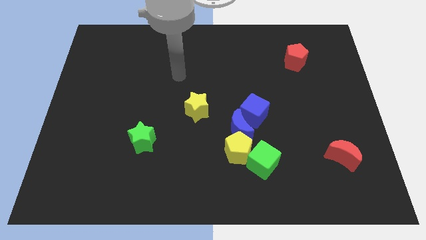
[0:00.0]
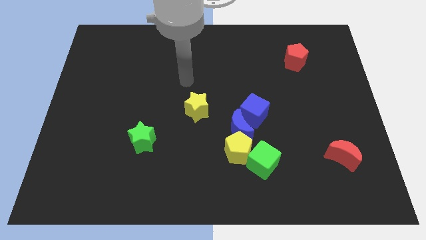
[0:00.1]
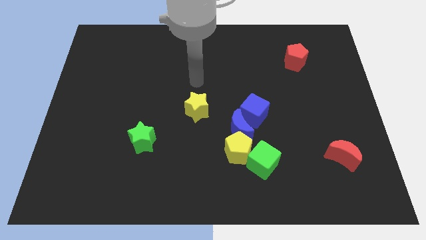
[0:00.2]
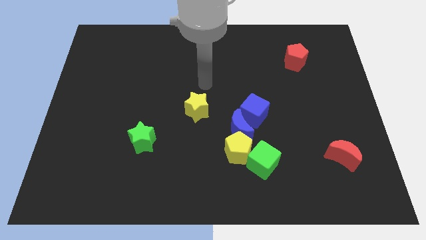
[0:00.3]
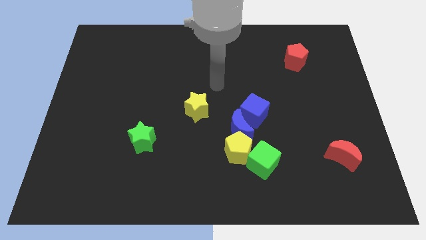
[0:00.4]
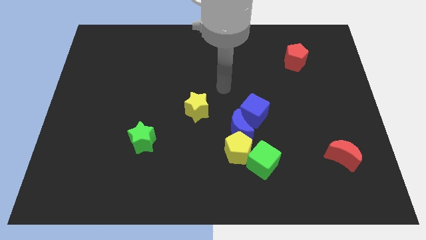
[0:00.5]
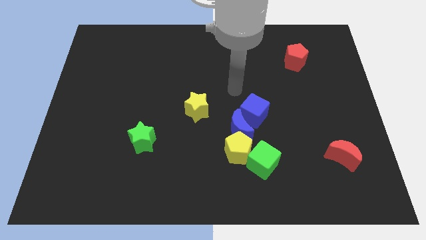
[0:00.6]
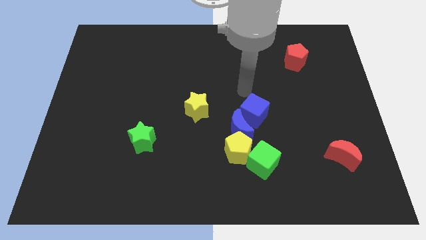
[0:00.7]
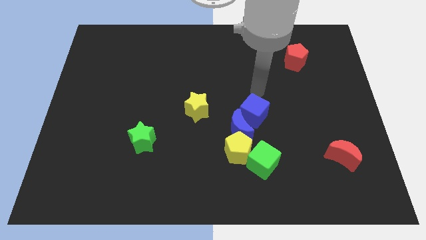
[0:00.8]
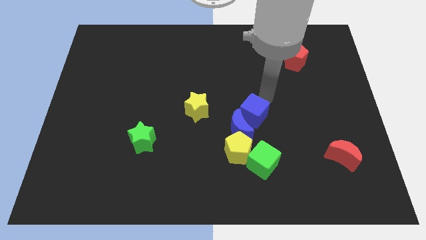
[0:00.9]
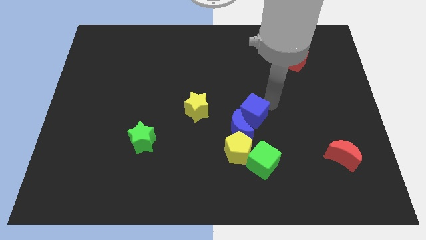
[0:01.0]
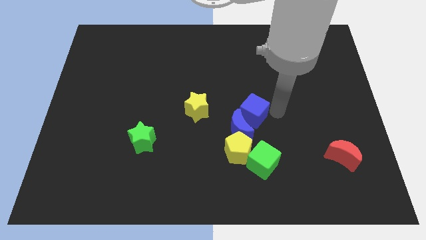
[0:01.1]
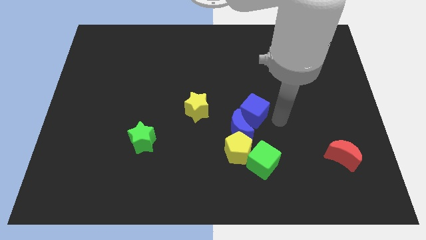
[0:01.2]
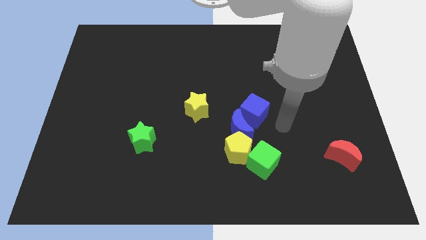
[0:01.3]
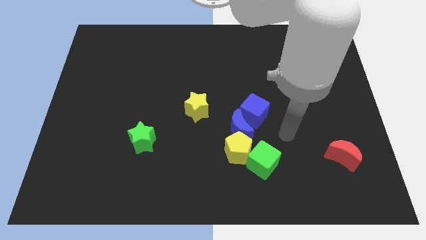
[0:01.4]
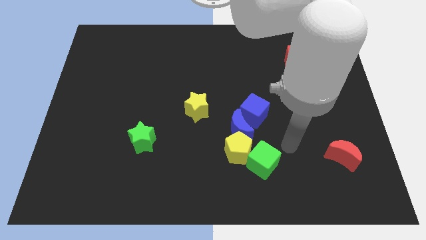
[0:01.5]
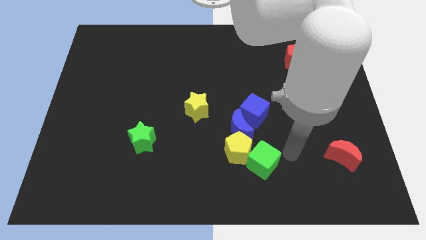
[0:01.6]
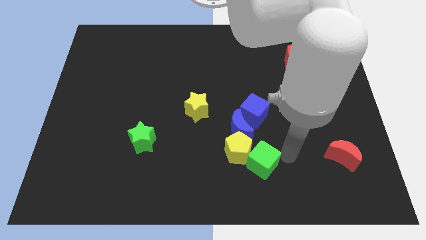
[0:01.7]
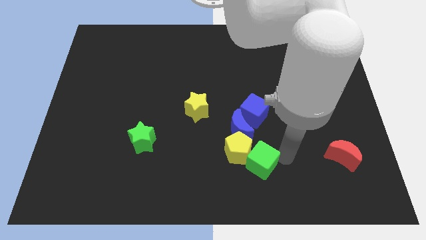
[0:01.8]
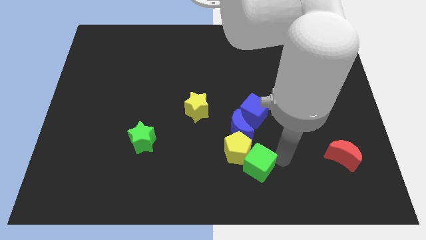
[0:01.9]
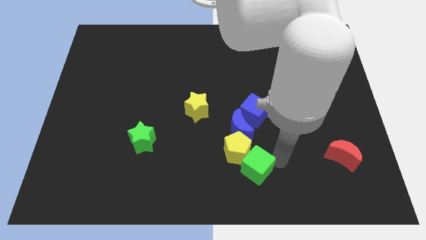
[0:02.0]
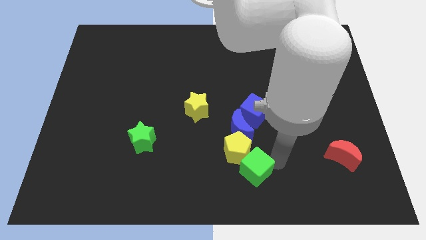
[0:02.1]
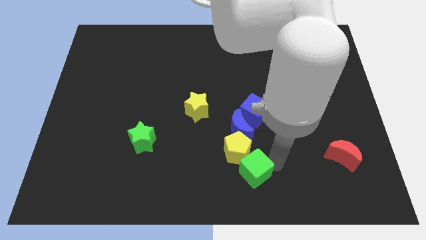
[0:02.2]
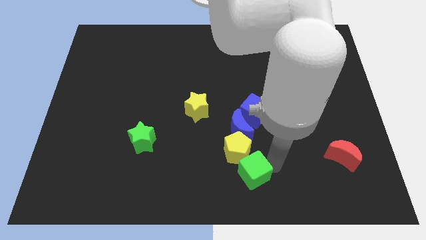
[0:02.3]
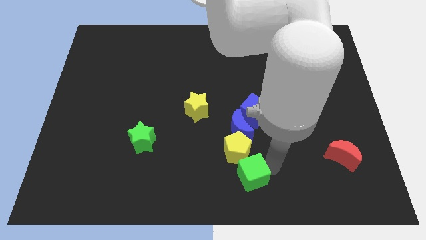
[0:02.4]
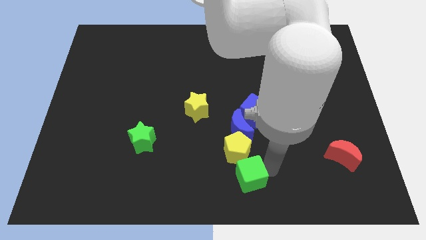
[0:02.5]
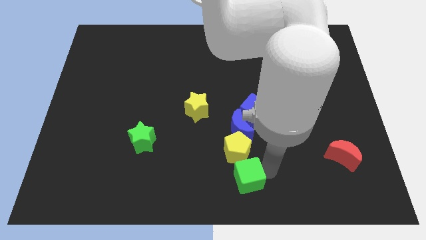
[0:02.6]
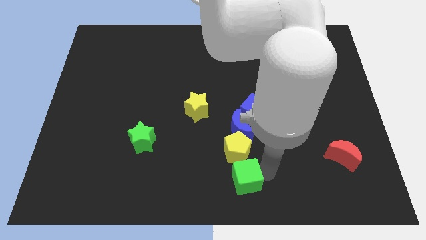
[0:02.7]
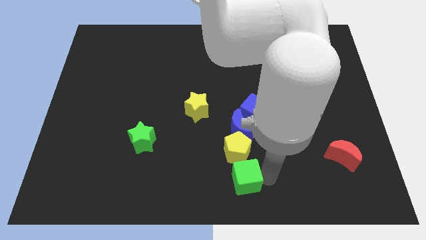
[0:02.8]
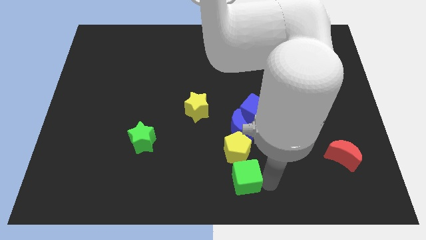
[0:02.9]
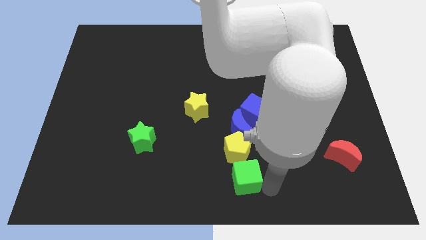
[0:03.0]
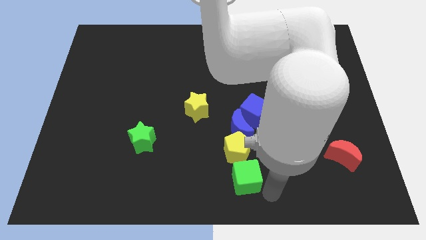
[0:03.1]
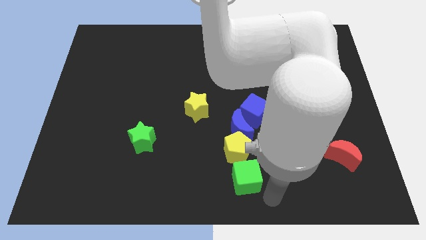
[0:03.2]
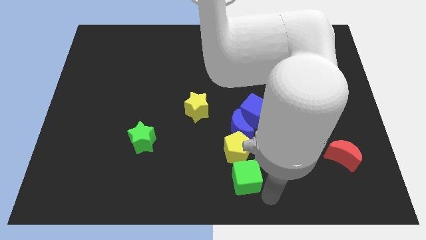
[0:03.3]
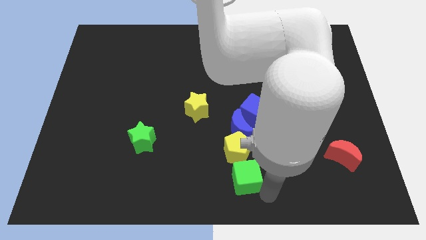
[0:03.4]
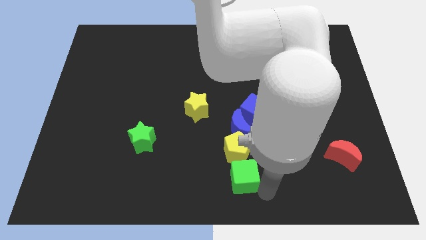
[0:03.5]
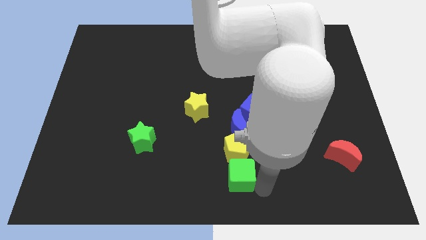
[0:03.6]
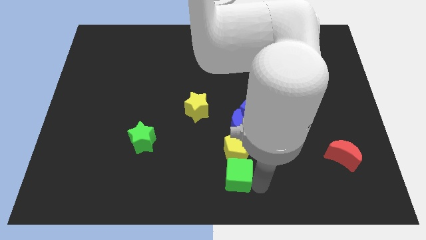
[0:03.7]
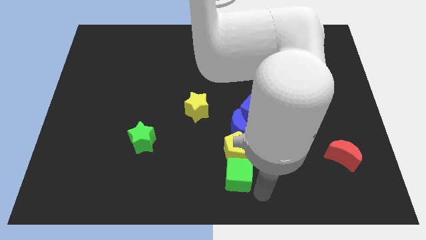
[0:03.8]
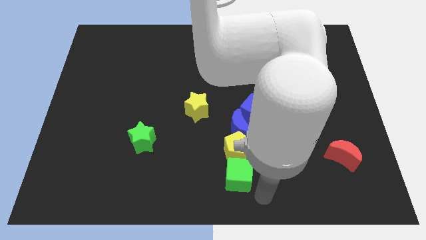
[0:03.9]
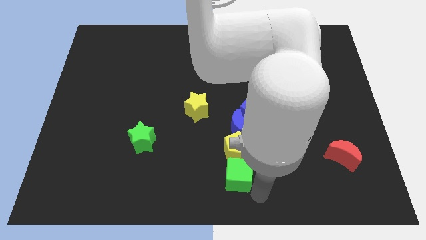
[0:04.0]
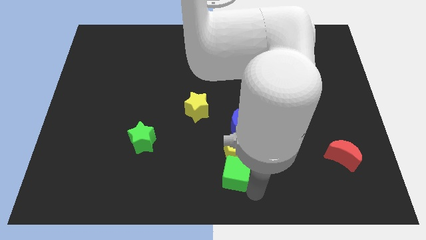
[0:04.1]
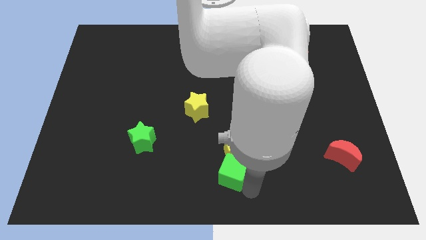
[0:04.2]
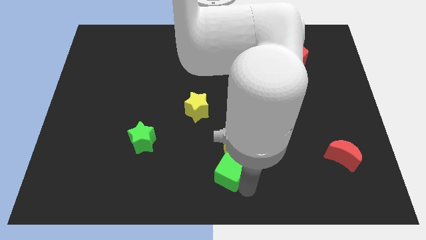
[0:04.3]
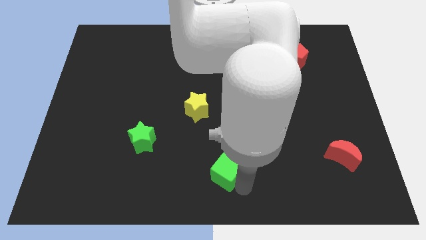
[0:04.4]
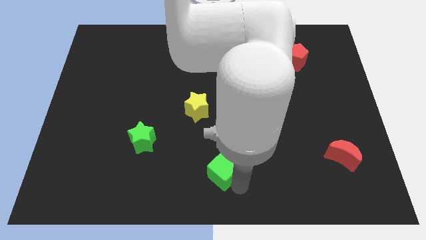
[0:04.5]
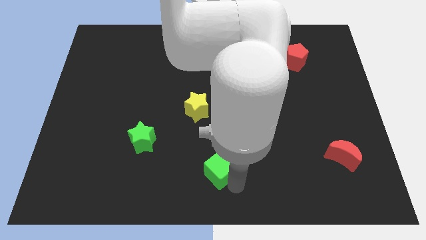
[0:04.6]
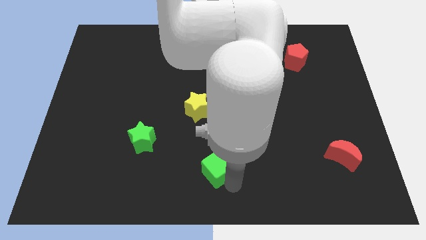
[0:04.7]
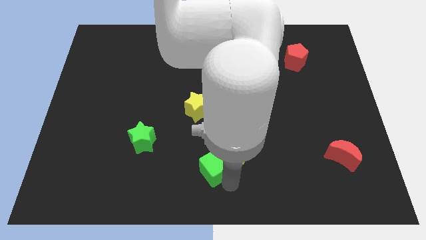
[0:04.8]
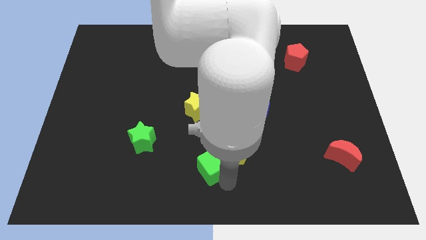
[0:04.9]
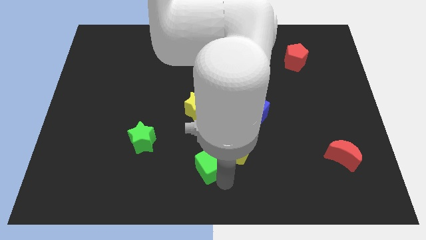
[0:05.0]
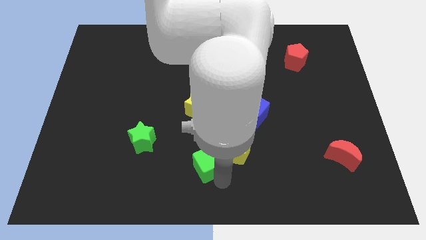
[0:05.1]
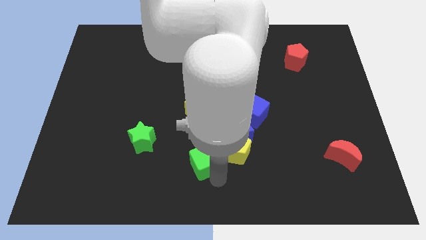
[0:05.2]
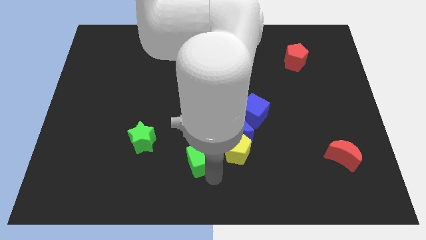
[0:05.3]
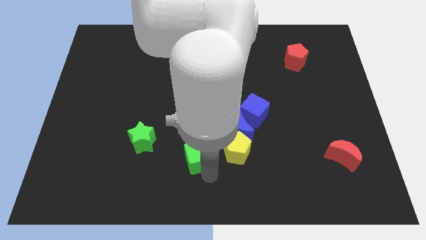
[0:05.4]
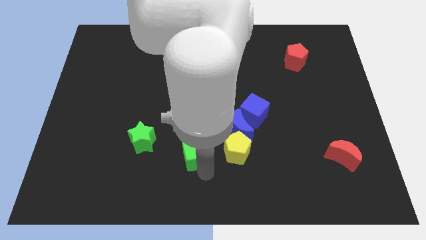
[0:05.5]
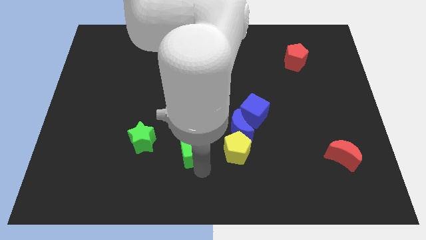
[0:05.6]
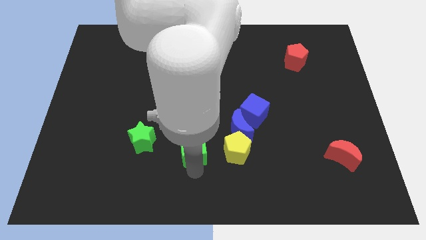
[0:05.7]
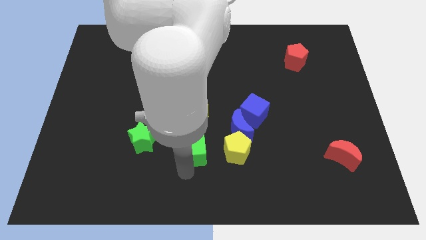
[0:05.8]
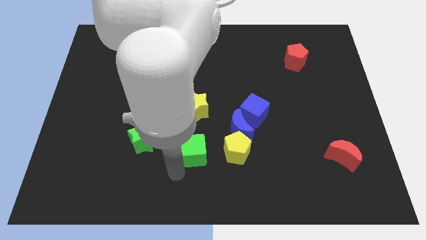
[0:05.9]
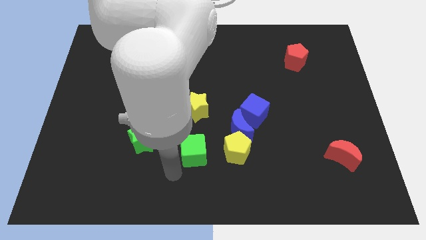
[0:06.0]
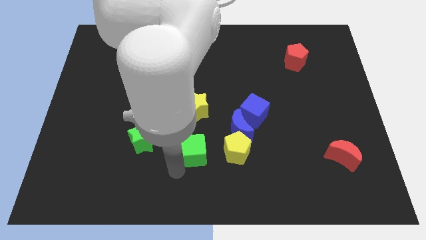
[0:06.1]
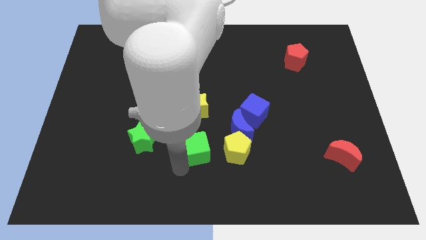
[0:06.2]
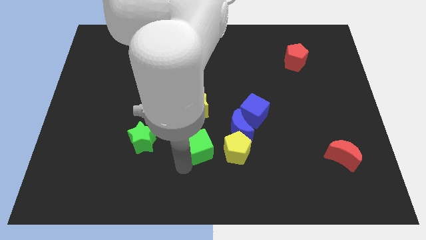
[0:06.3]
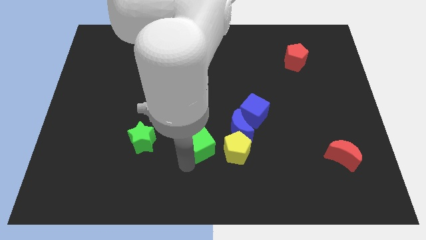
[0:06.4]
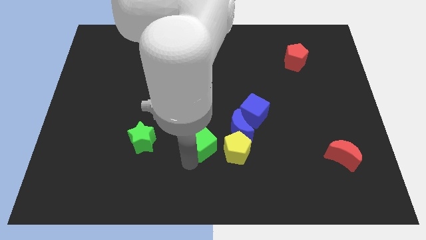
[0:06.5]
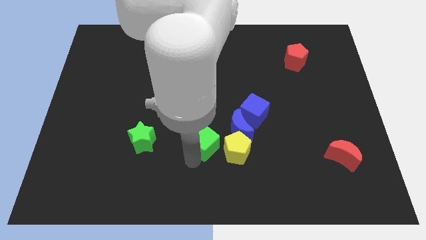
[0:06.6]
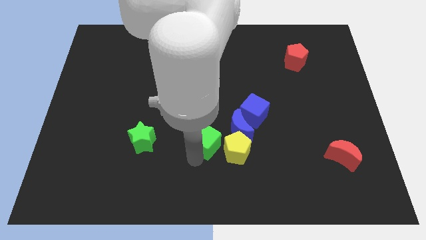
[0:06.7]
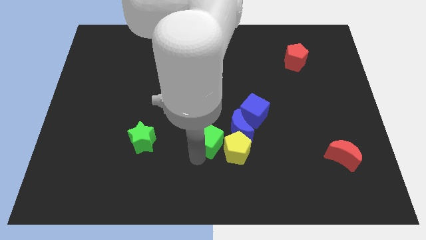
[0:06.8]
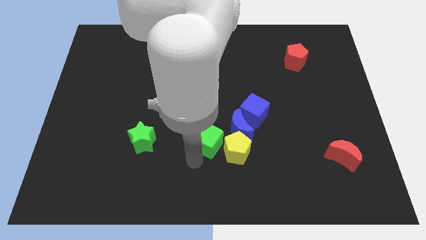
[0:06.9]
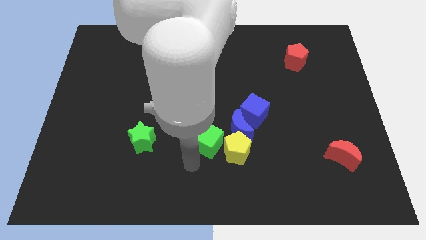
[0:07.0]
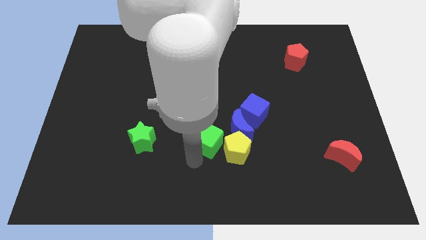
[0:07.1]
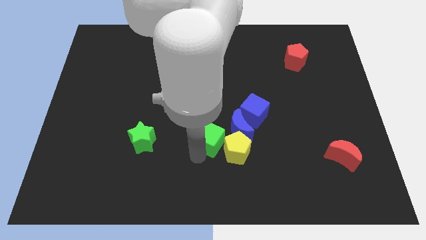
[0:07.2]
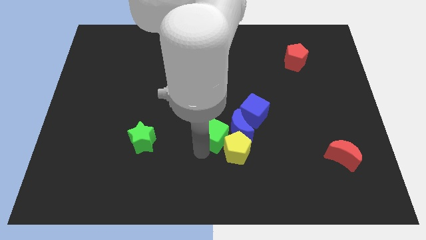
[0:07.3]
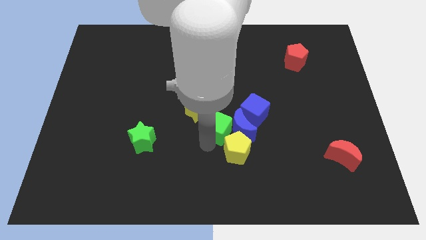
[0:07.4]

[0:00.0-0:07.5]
put the green cube above the yellow pentagon

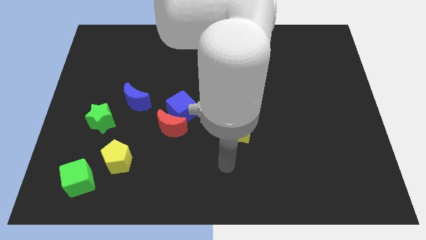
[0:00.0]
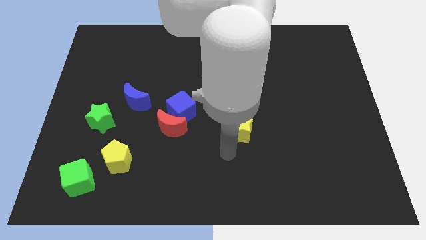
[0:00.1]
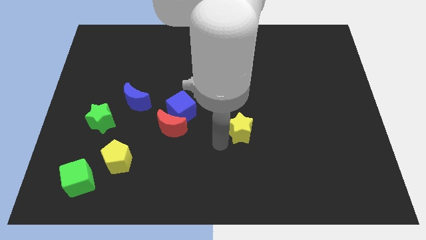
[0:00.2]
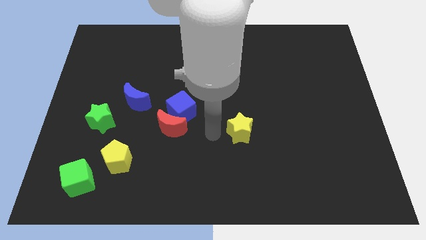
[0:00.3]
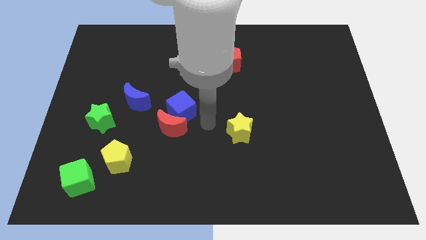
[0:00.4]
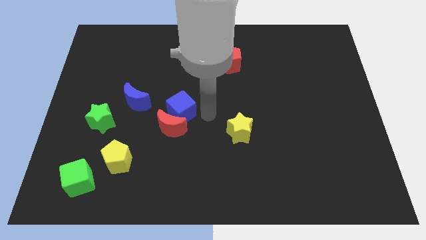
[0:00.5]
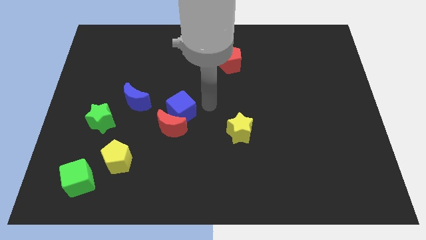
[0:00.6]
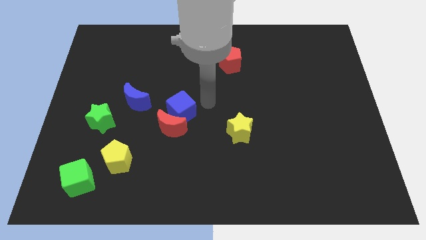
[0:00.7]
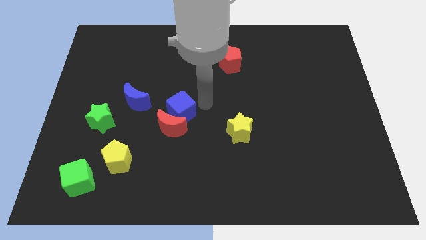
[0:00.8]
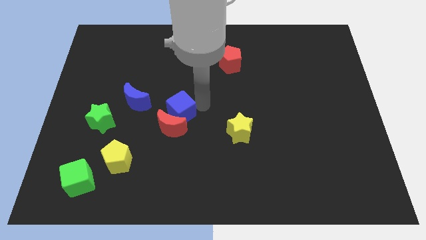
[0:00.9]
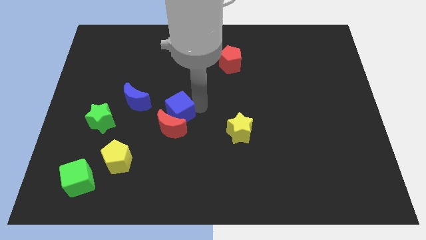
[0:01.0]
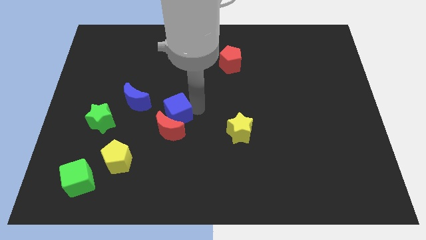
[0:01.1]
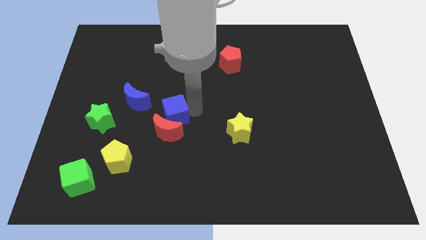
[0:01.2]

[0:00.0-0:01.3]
slide the blue cube to the bottom right of the blue moon
